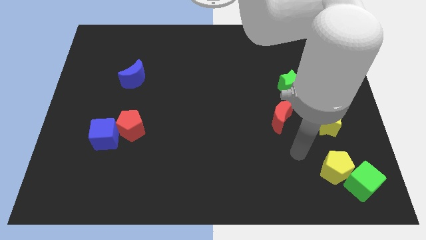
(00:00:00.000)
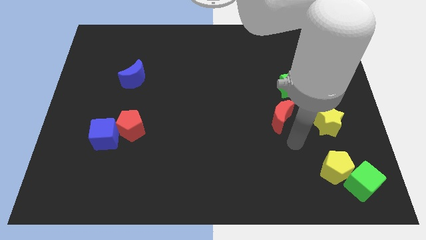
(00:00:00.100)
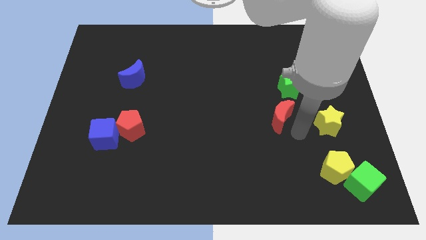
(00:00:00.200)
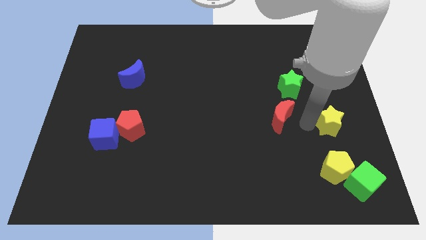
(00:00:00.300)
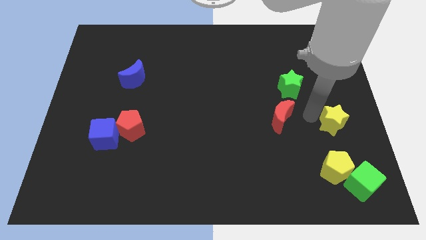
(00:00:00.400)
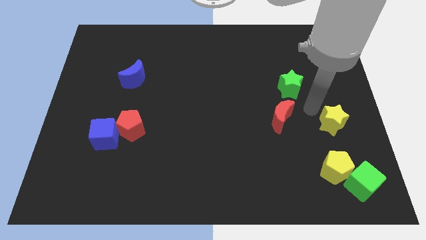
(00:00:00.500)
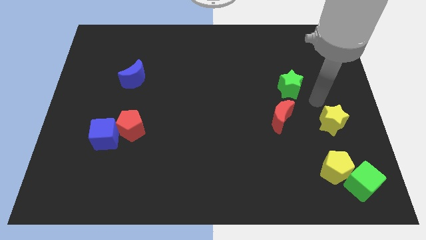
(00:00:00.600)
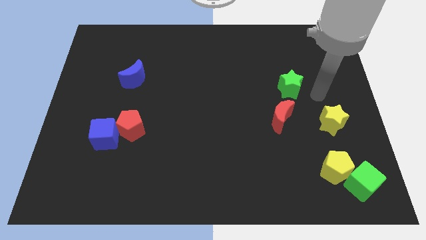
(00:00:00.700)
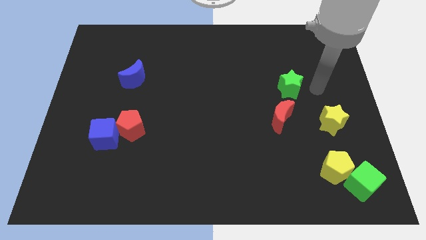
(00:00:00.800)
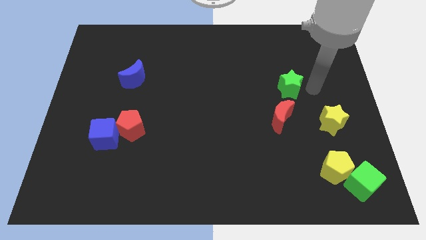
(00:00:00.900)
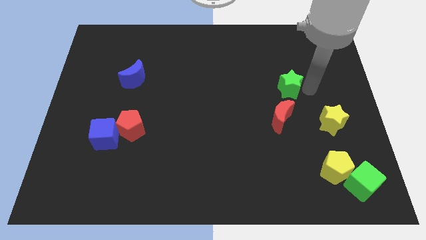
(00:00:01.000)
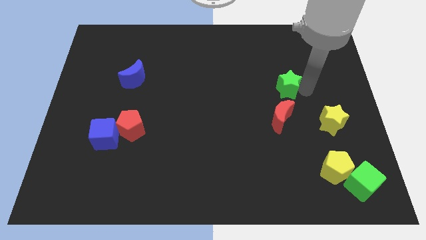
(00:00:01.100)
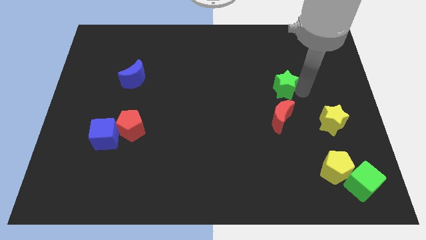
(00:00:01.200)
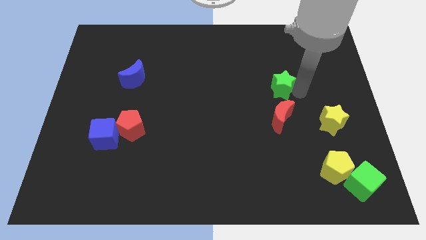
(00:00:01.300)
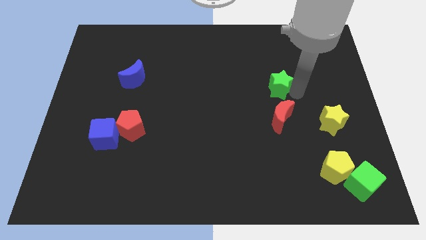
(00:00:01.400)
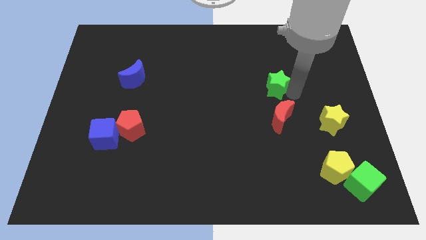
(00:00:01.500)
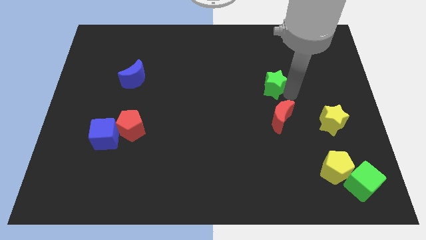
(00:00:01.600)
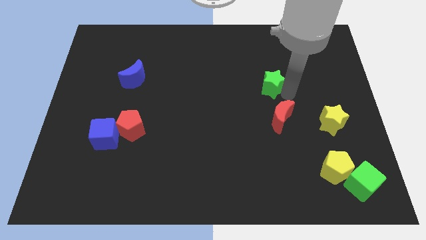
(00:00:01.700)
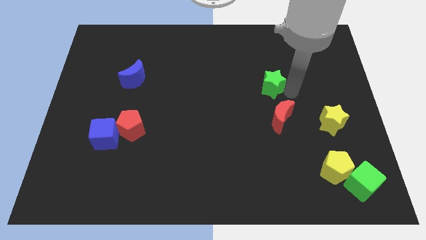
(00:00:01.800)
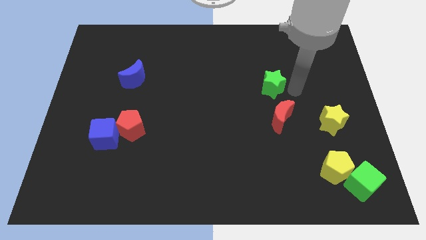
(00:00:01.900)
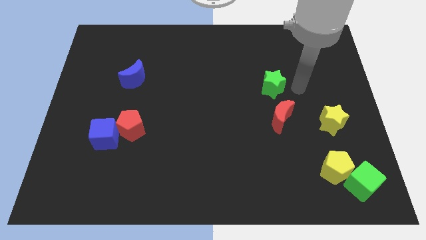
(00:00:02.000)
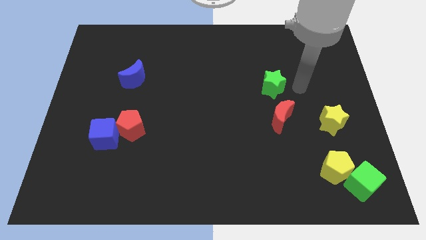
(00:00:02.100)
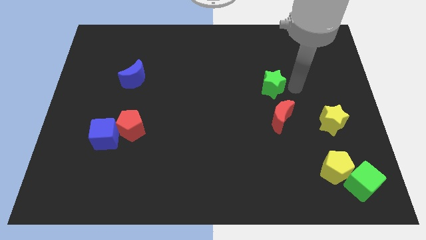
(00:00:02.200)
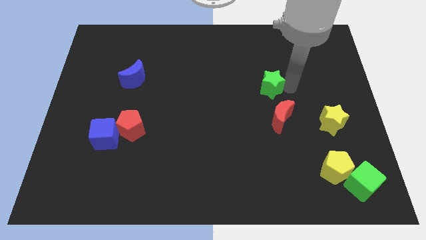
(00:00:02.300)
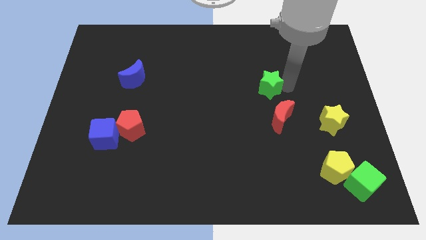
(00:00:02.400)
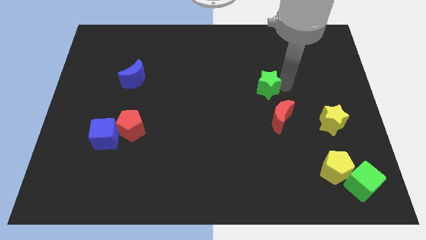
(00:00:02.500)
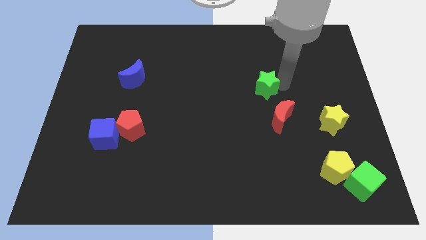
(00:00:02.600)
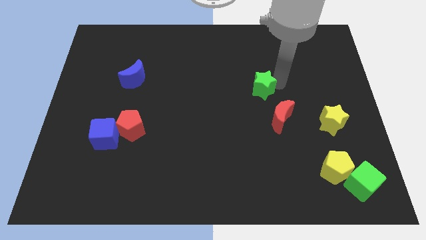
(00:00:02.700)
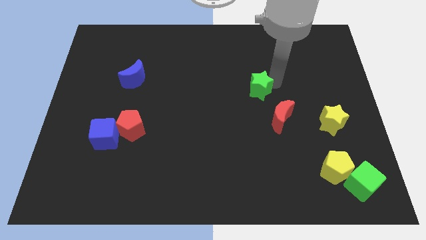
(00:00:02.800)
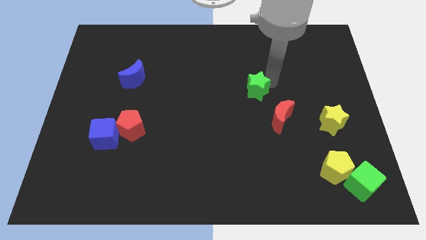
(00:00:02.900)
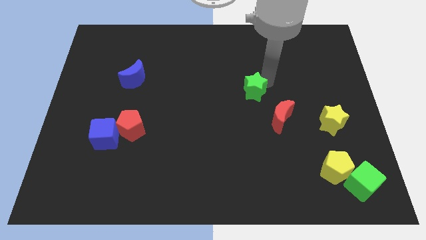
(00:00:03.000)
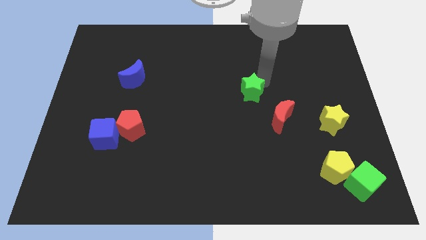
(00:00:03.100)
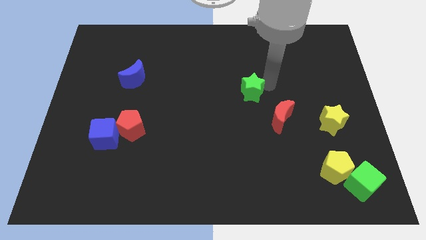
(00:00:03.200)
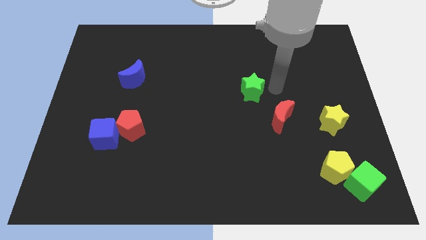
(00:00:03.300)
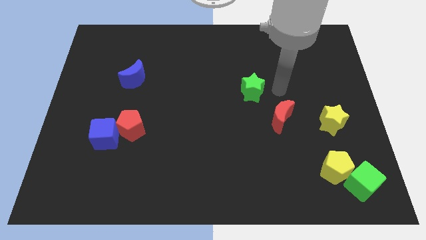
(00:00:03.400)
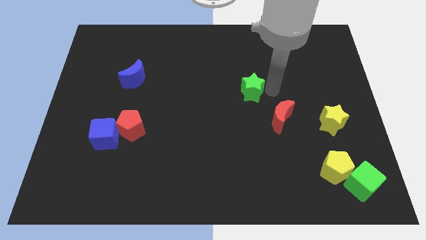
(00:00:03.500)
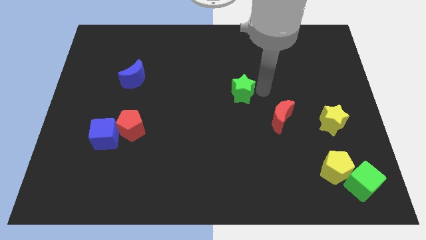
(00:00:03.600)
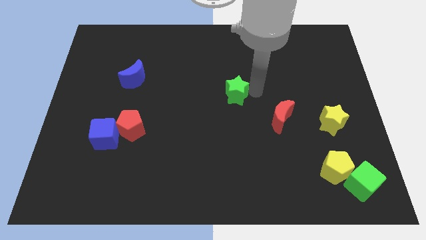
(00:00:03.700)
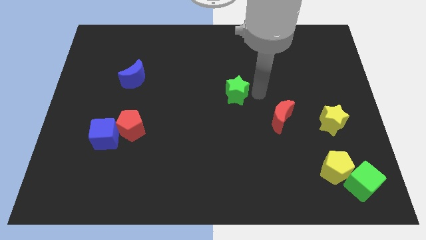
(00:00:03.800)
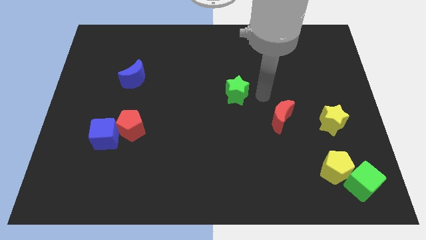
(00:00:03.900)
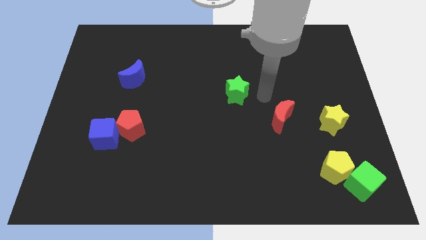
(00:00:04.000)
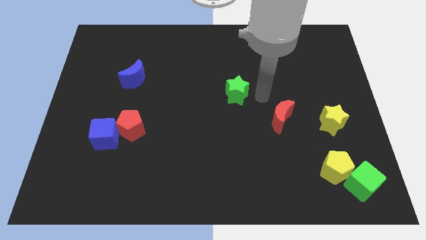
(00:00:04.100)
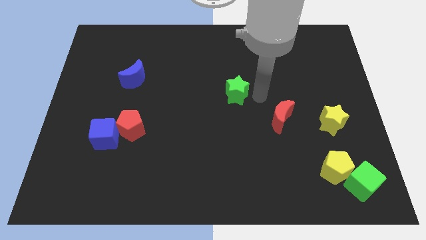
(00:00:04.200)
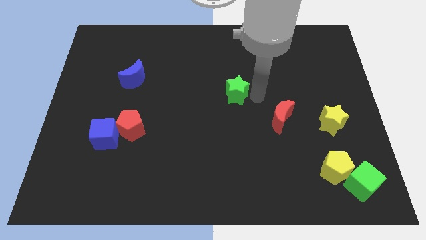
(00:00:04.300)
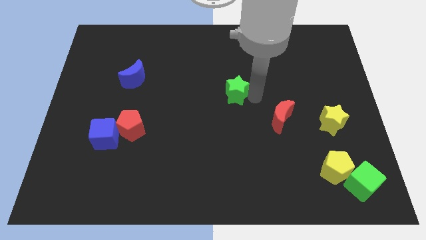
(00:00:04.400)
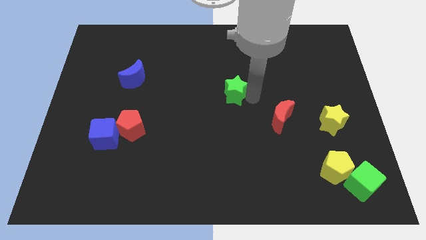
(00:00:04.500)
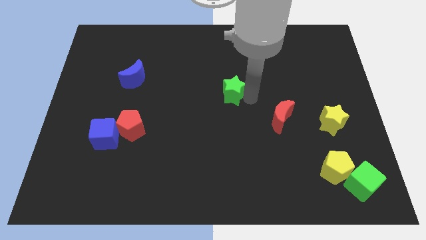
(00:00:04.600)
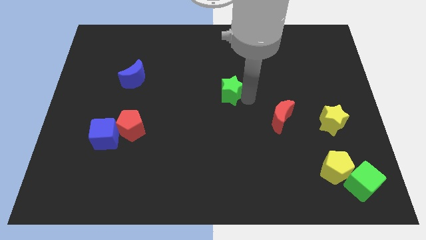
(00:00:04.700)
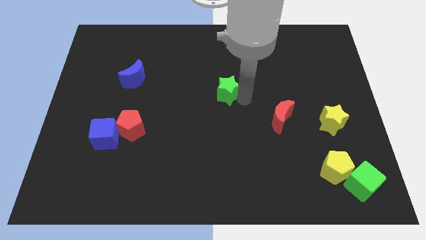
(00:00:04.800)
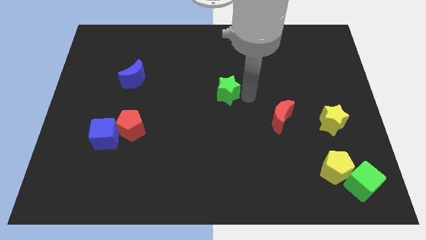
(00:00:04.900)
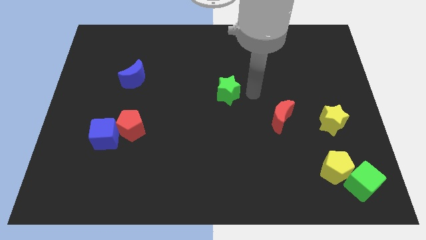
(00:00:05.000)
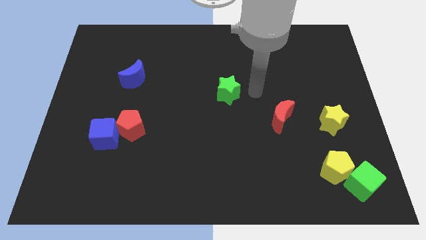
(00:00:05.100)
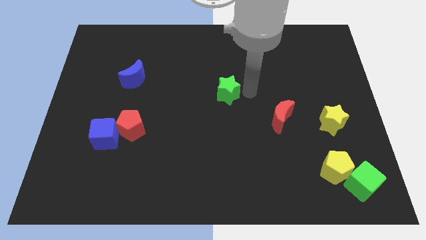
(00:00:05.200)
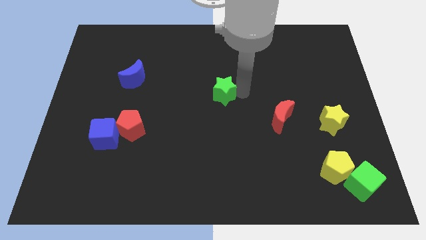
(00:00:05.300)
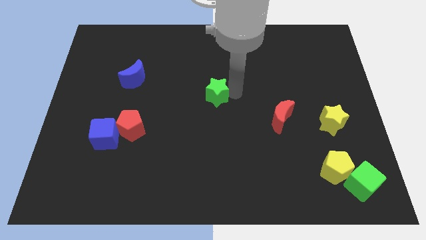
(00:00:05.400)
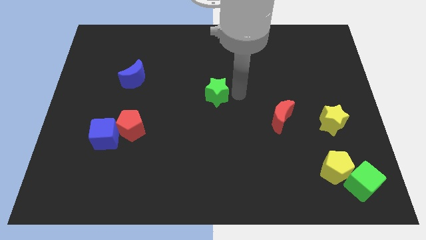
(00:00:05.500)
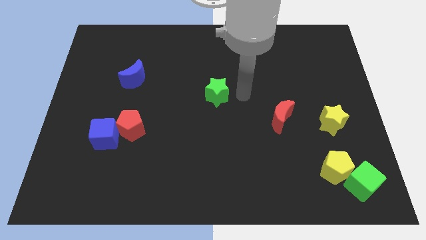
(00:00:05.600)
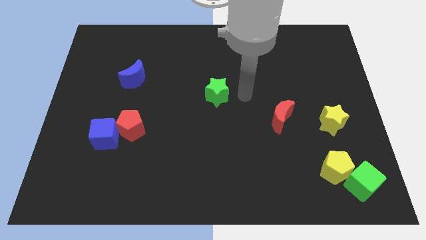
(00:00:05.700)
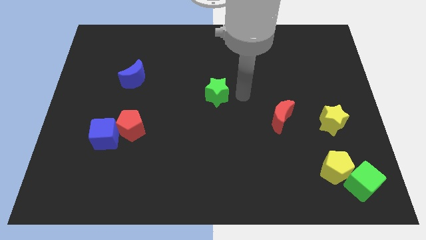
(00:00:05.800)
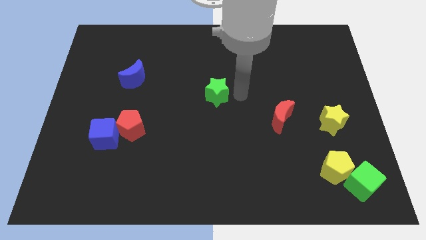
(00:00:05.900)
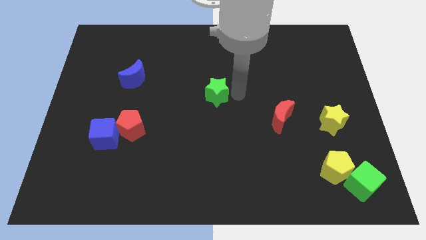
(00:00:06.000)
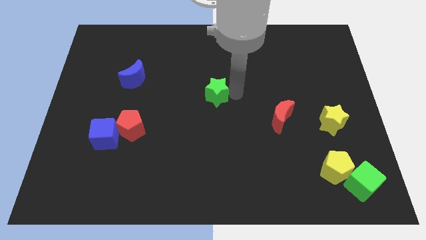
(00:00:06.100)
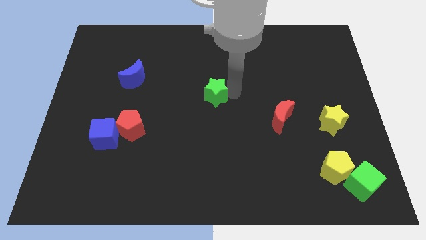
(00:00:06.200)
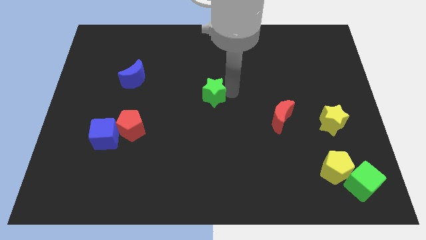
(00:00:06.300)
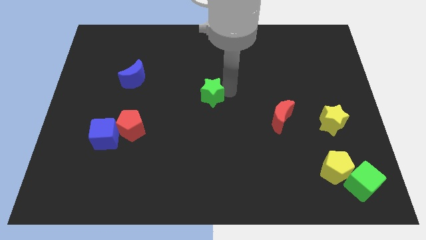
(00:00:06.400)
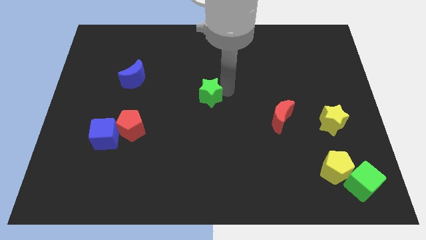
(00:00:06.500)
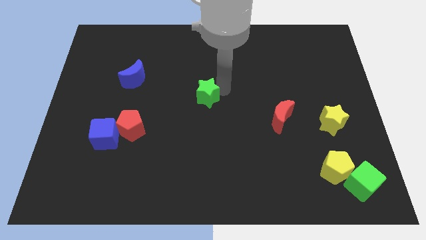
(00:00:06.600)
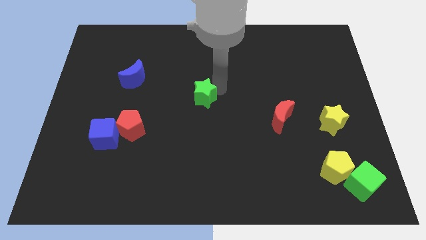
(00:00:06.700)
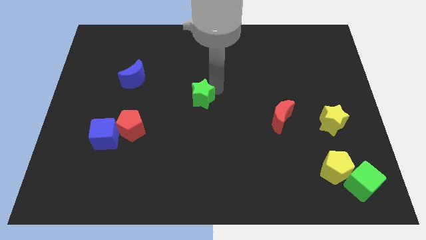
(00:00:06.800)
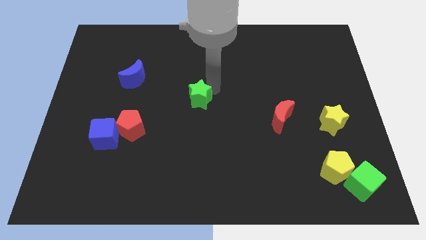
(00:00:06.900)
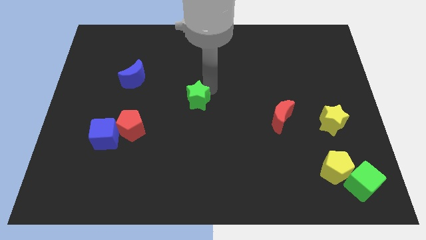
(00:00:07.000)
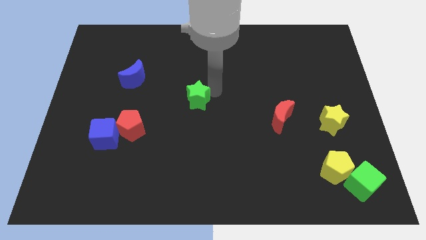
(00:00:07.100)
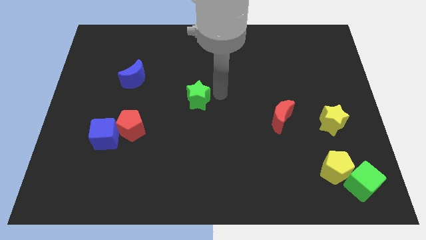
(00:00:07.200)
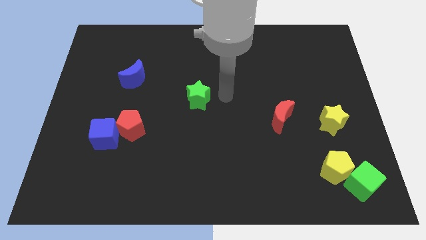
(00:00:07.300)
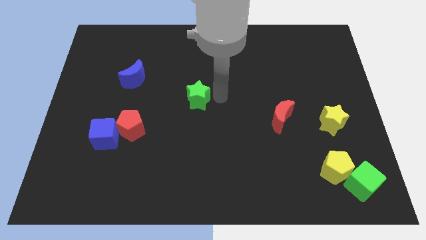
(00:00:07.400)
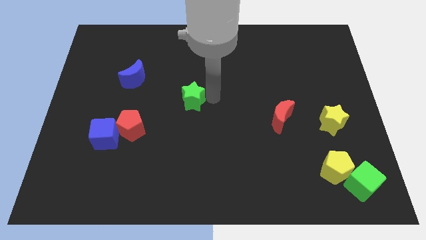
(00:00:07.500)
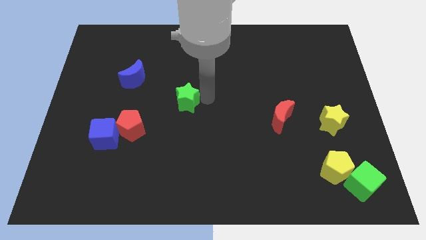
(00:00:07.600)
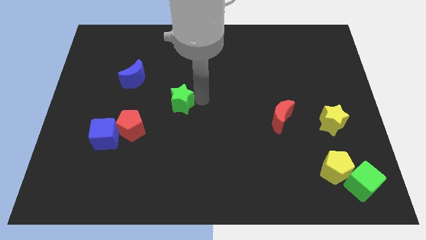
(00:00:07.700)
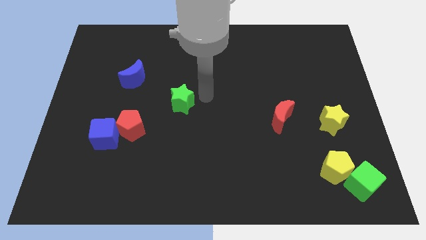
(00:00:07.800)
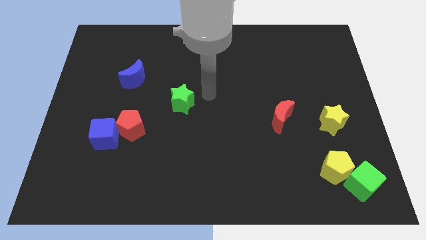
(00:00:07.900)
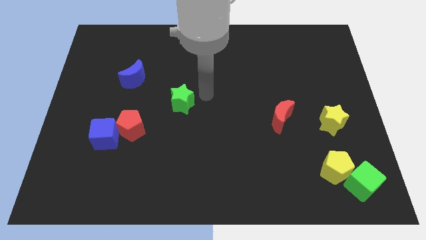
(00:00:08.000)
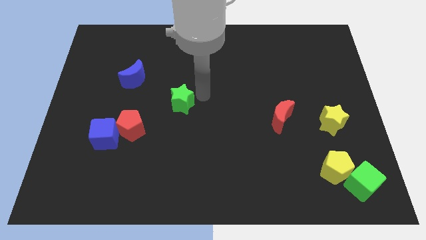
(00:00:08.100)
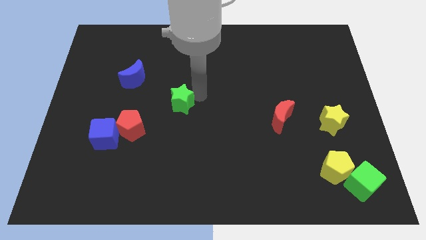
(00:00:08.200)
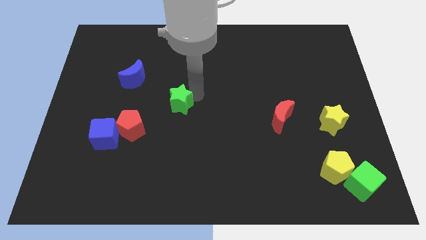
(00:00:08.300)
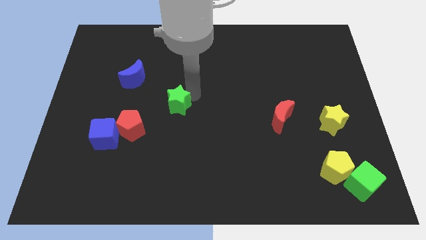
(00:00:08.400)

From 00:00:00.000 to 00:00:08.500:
slide the green star to the top right of the red pentagon
